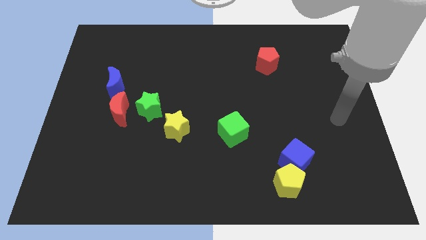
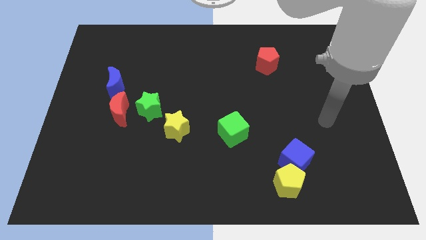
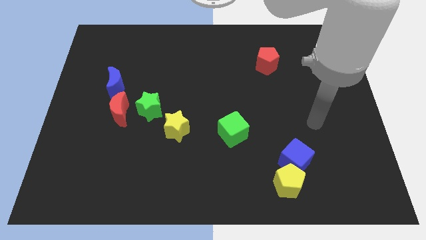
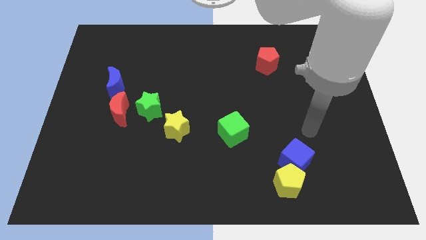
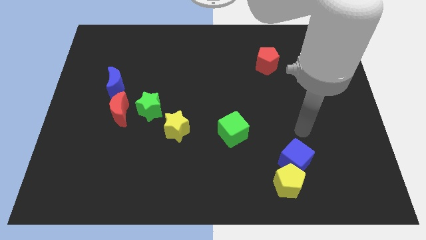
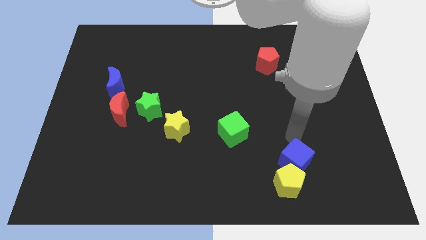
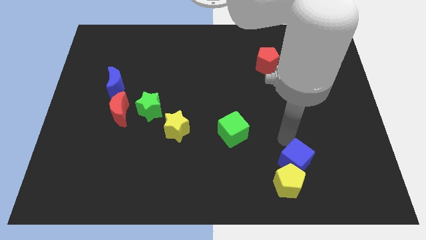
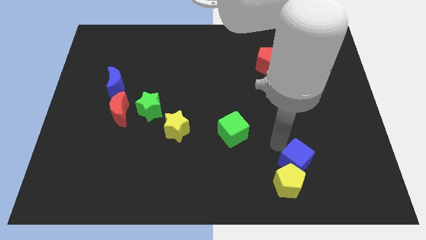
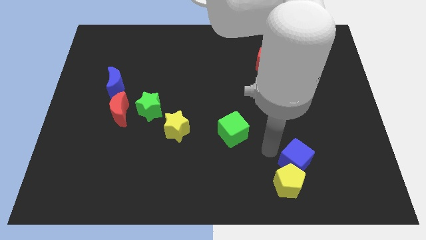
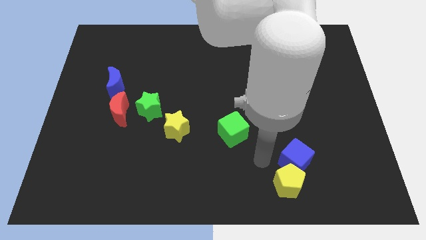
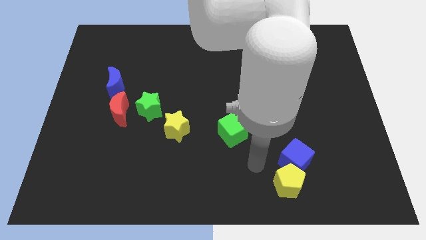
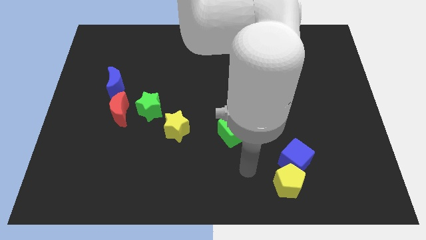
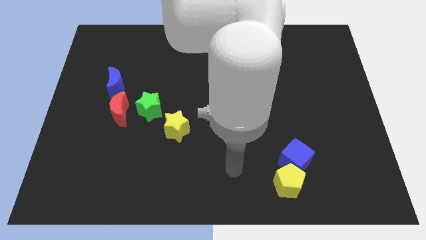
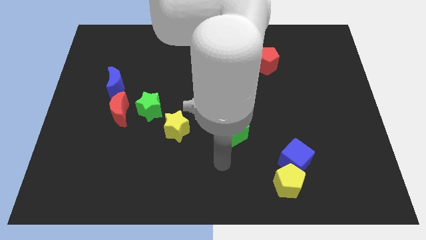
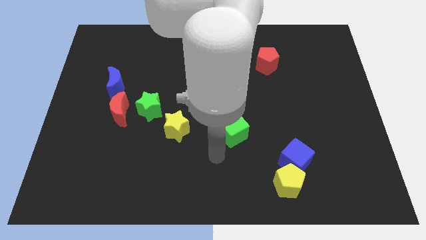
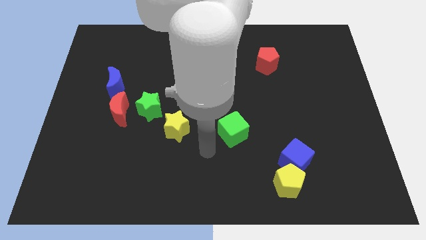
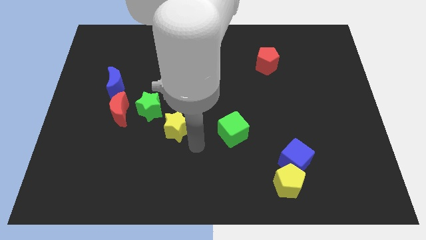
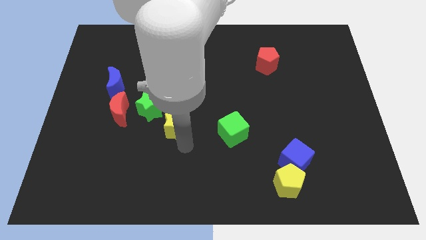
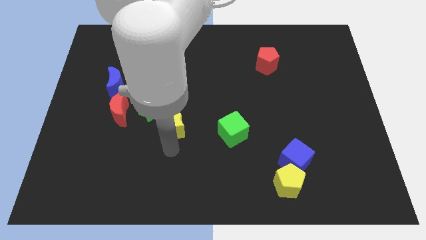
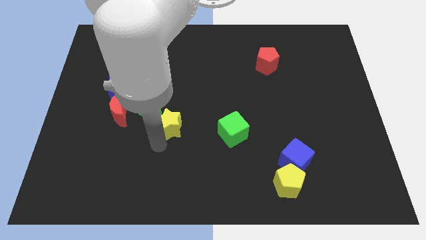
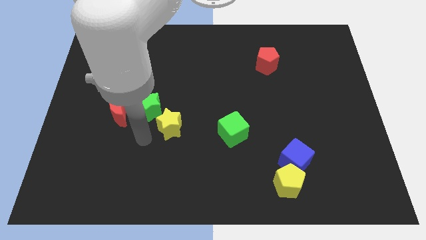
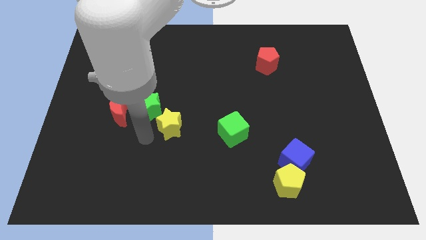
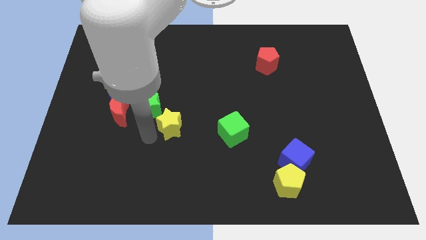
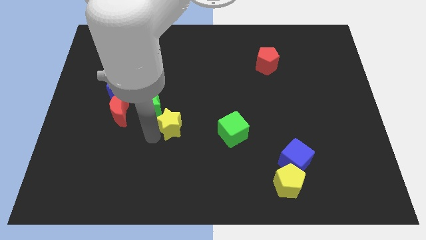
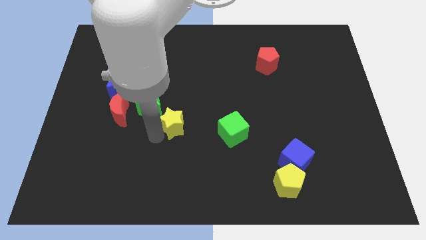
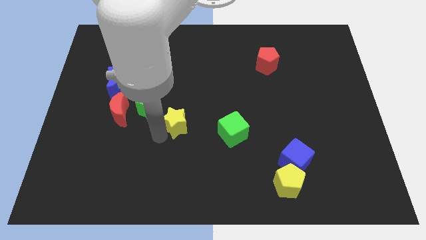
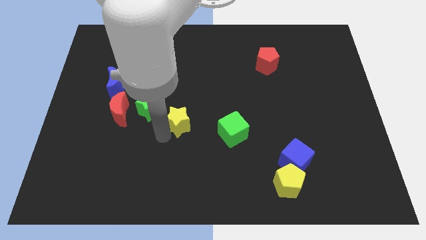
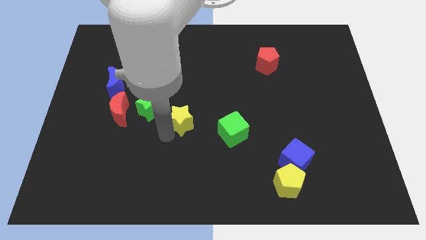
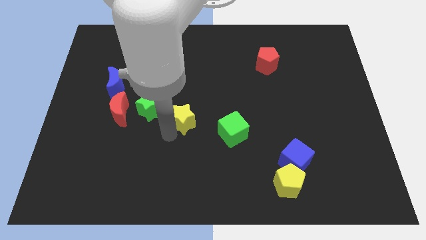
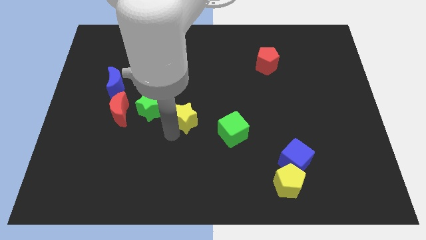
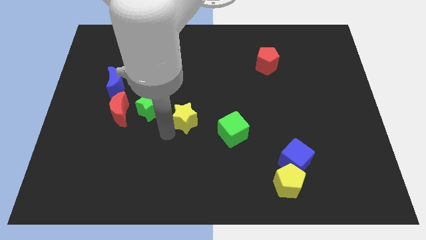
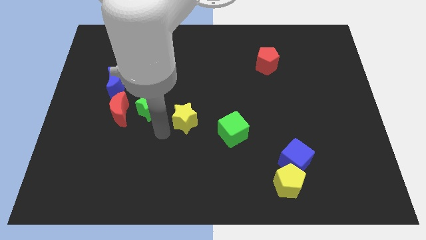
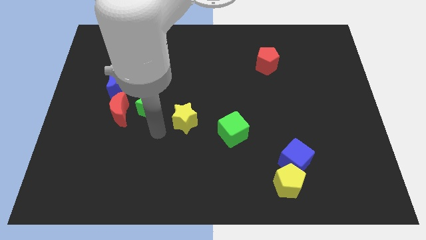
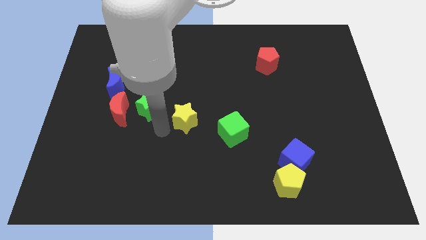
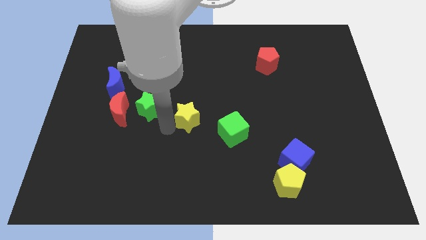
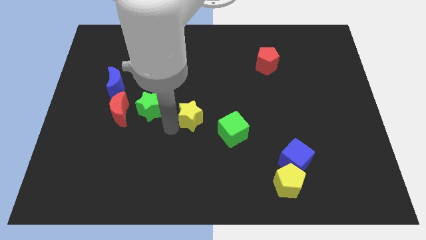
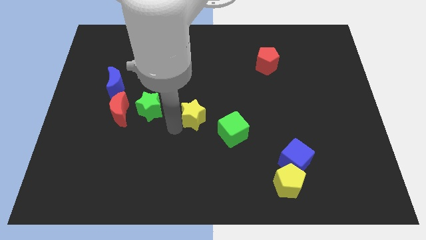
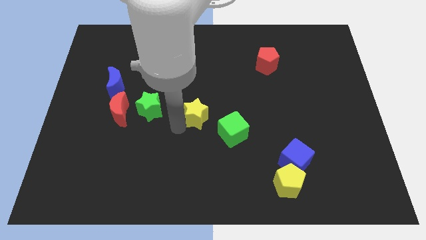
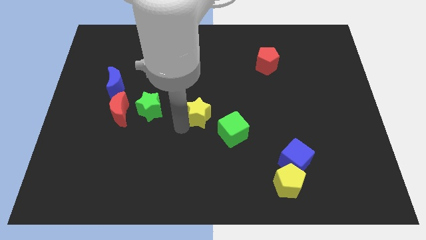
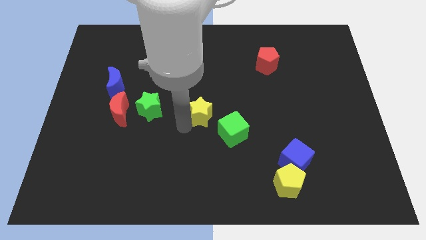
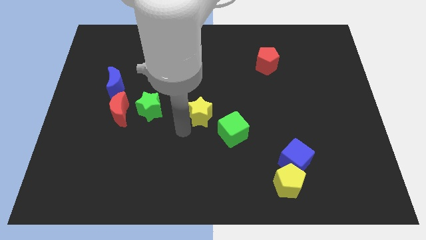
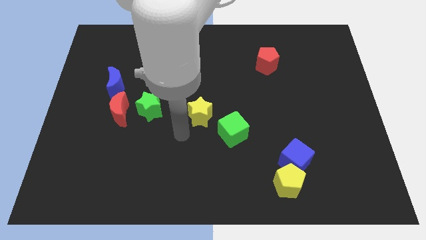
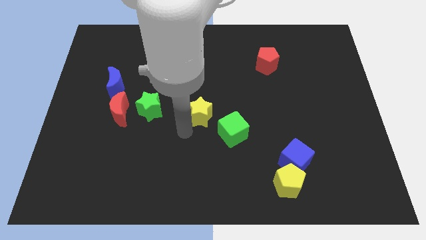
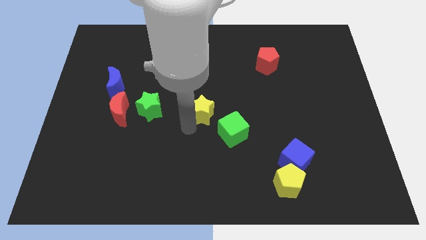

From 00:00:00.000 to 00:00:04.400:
push the yellow star a little upwards and to the right diagonally

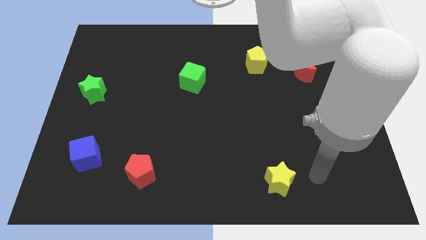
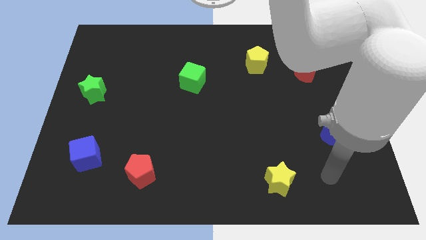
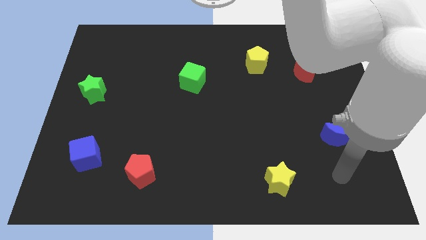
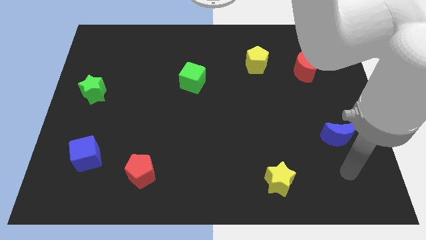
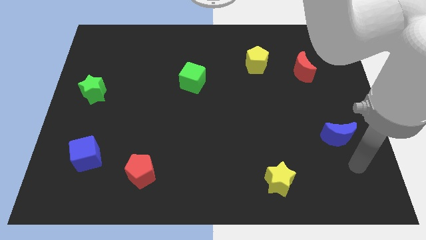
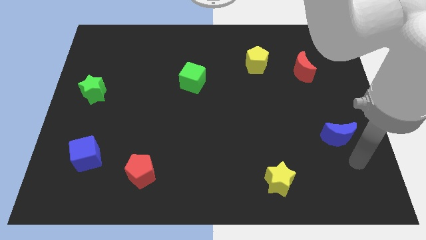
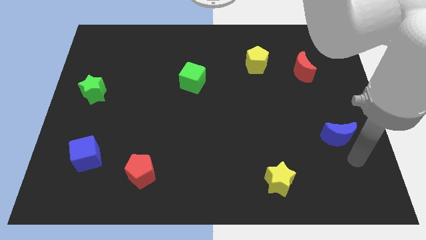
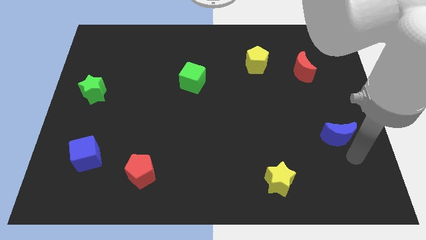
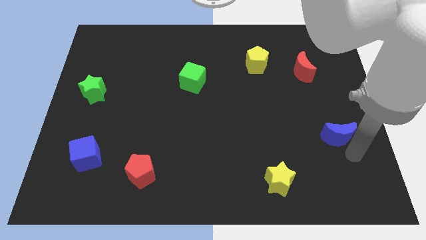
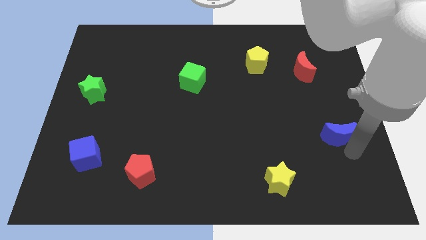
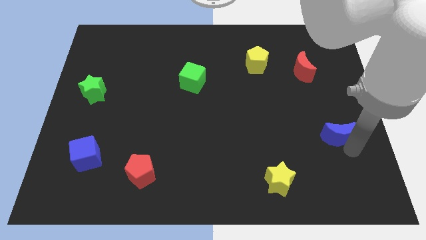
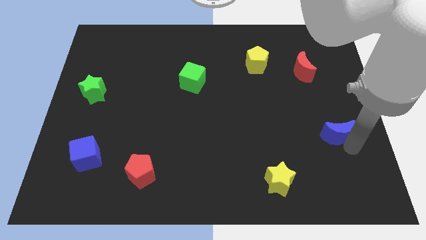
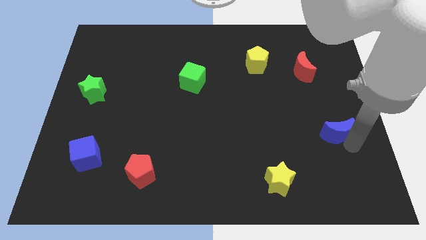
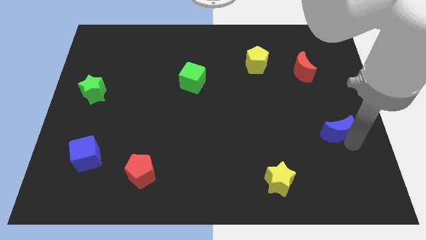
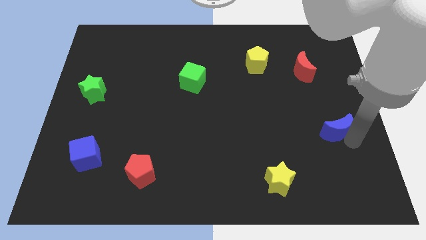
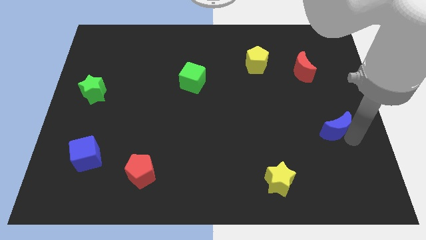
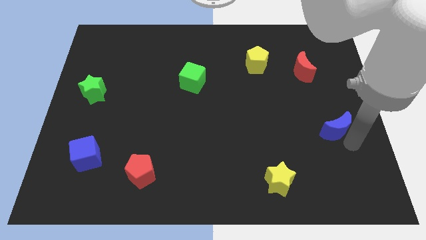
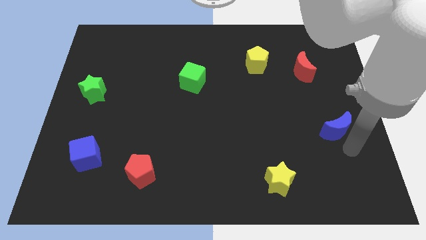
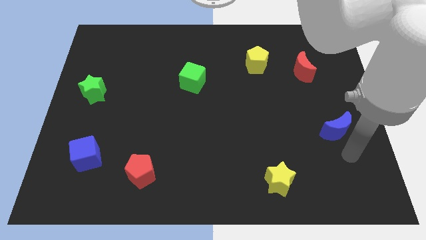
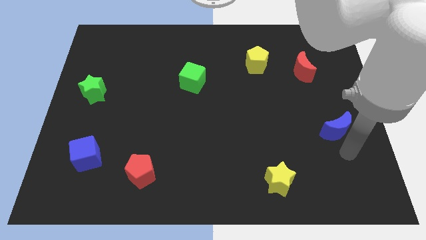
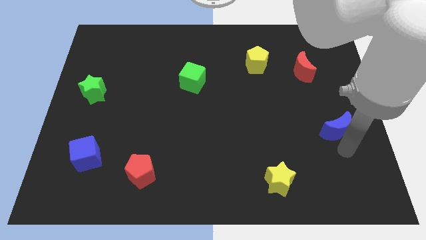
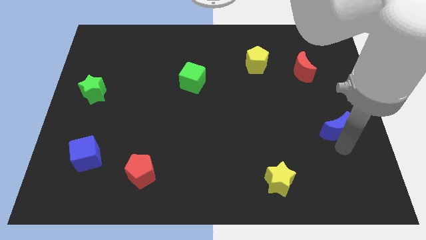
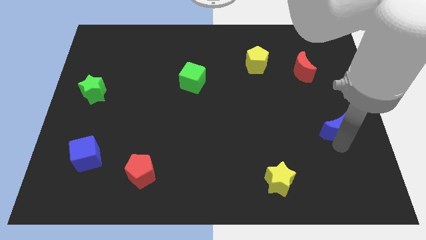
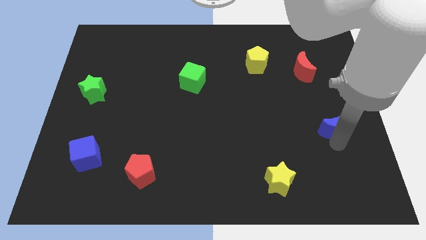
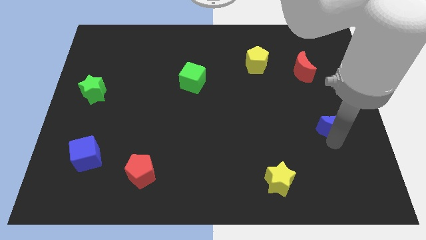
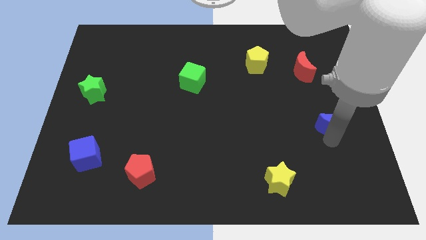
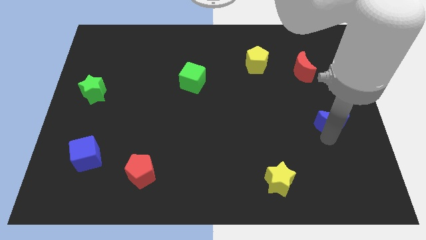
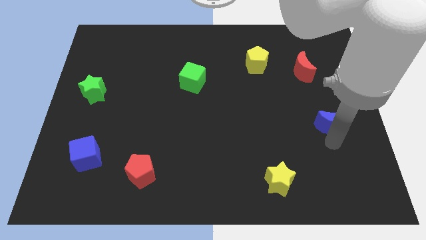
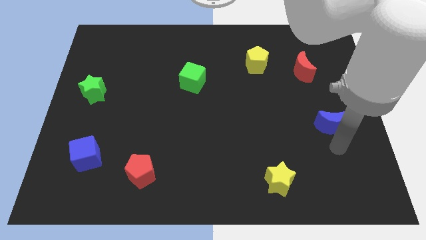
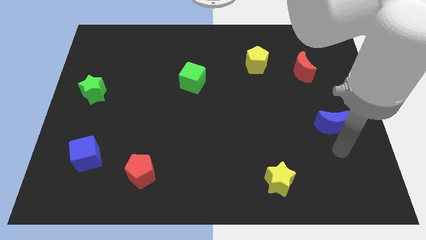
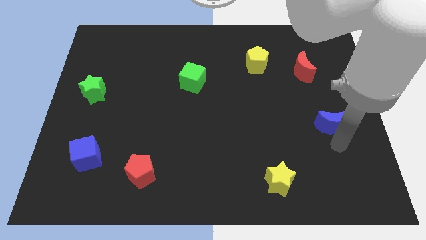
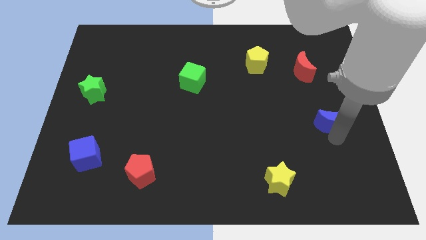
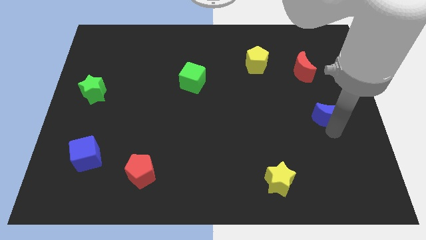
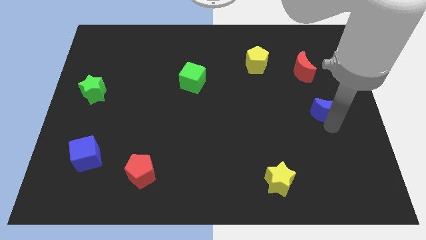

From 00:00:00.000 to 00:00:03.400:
slide the blue moon up a bit
